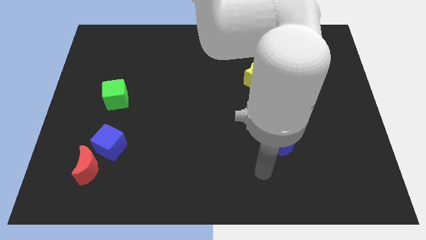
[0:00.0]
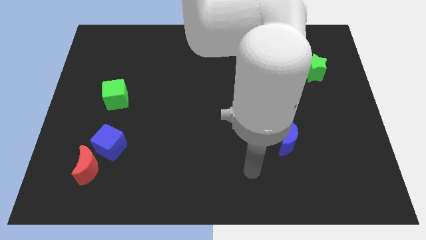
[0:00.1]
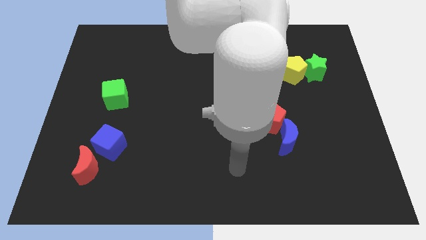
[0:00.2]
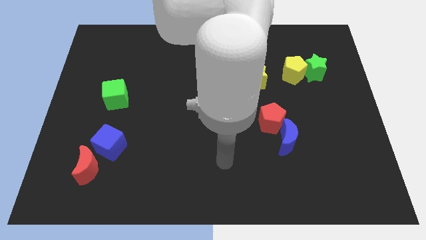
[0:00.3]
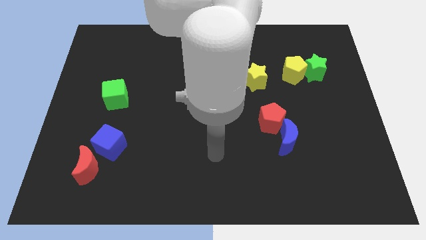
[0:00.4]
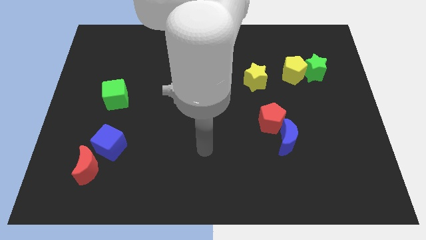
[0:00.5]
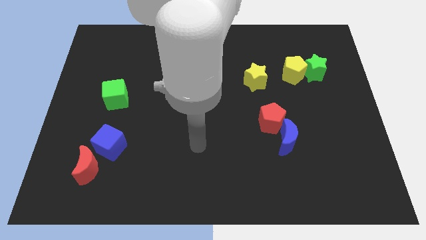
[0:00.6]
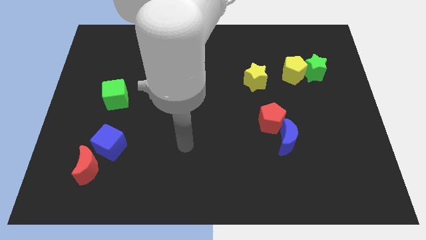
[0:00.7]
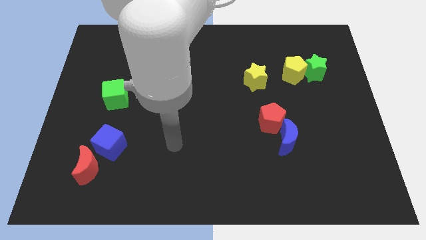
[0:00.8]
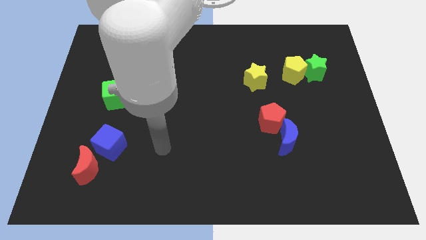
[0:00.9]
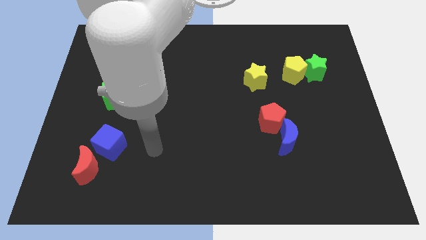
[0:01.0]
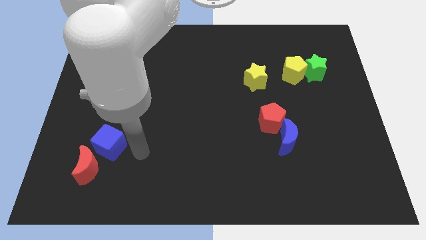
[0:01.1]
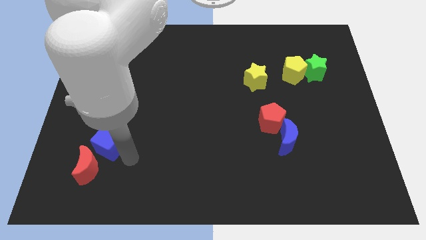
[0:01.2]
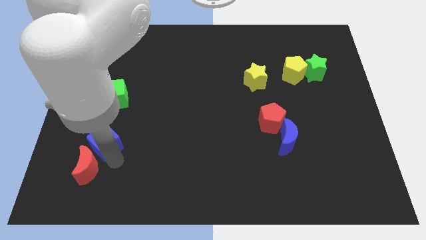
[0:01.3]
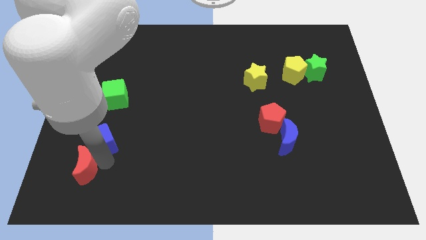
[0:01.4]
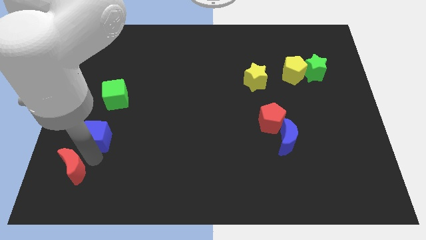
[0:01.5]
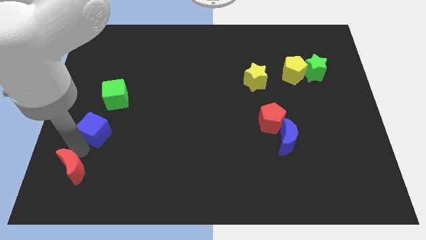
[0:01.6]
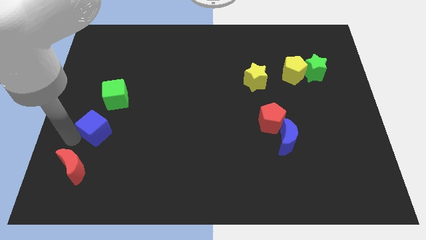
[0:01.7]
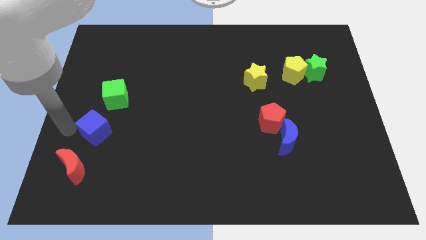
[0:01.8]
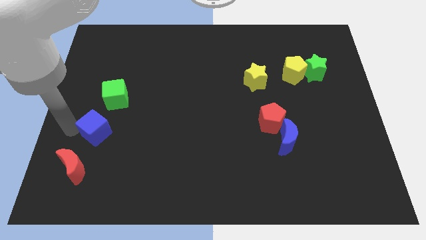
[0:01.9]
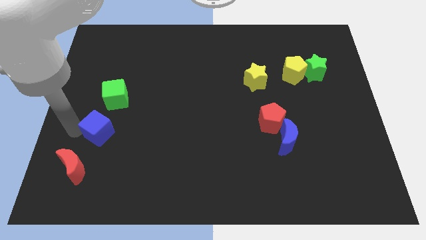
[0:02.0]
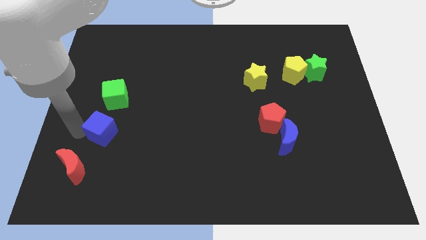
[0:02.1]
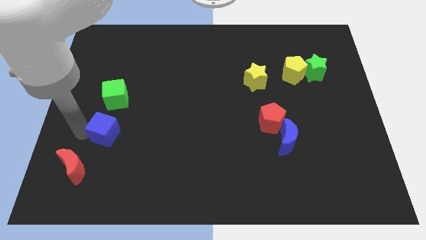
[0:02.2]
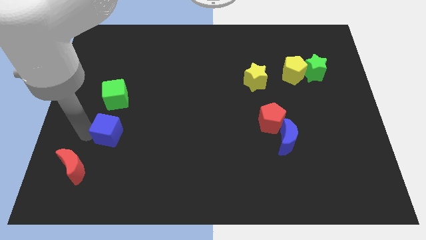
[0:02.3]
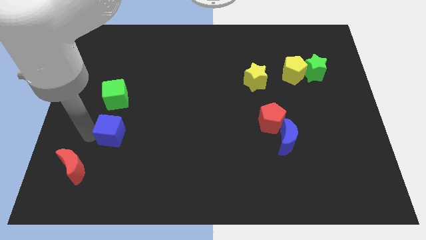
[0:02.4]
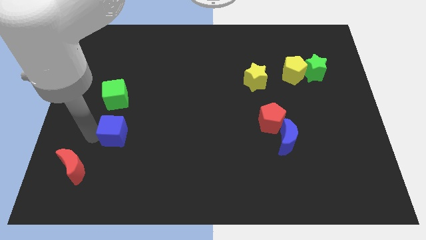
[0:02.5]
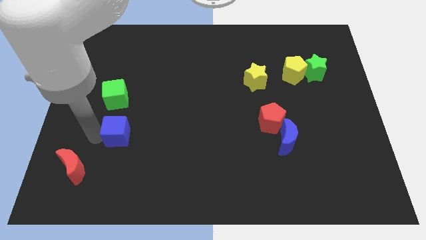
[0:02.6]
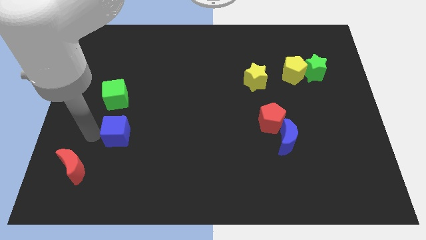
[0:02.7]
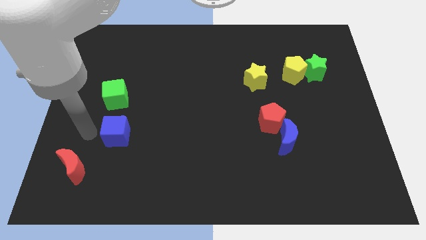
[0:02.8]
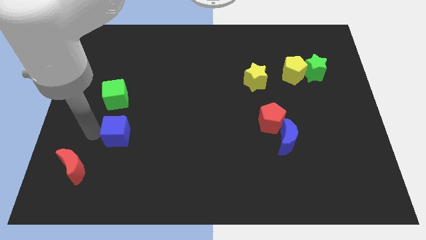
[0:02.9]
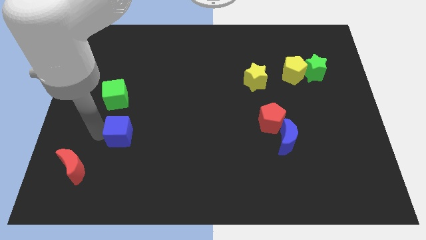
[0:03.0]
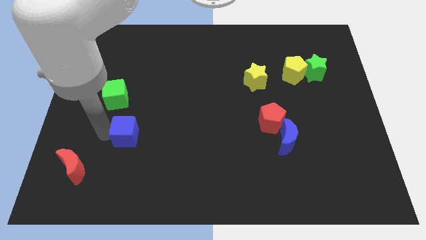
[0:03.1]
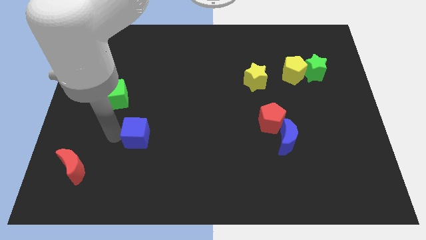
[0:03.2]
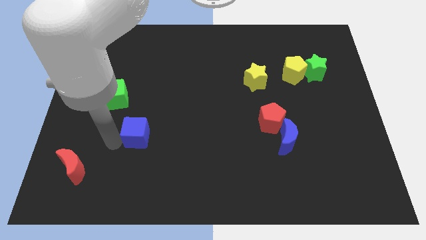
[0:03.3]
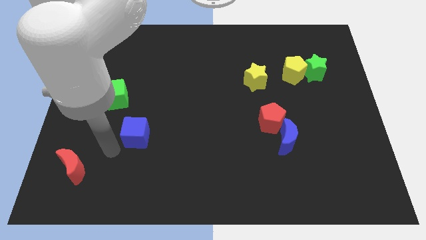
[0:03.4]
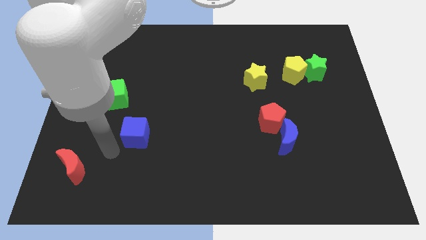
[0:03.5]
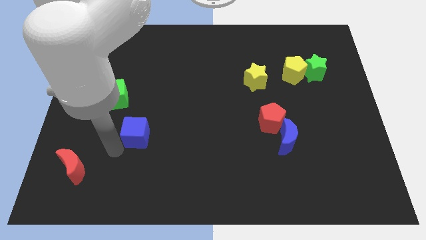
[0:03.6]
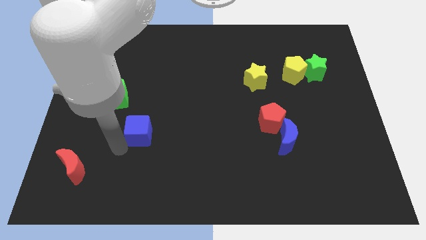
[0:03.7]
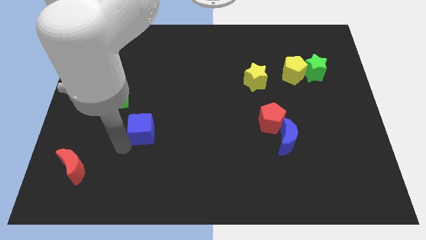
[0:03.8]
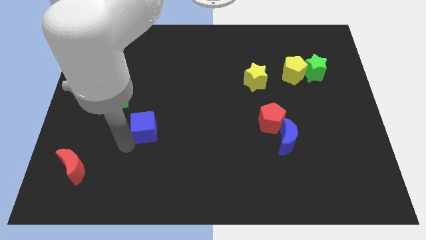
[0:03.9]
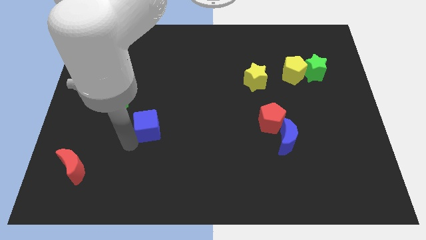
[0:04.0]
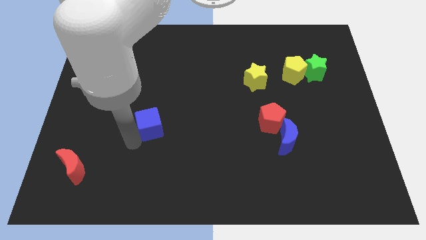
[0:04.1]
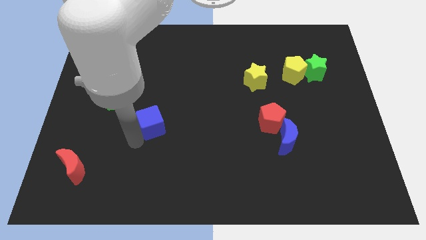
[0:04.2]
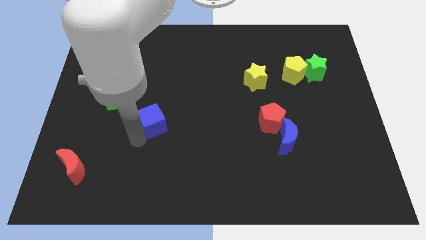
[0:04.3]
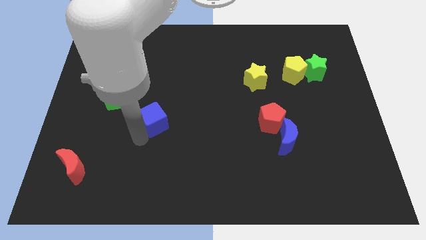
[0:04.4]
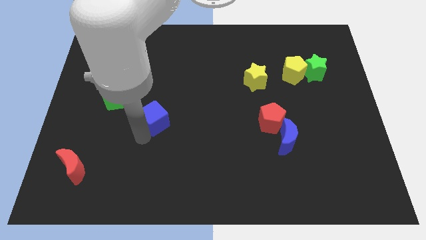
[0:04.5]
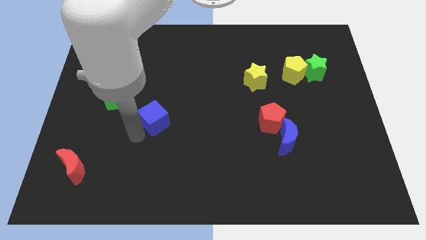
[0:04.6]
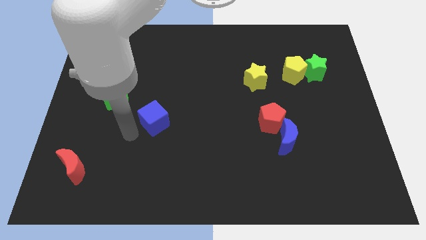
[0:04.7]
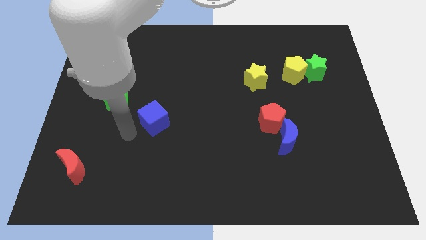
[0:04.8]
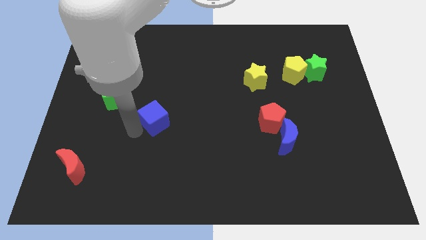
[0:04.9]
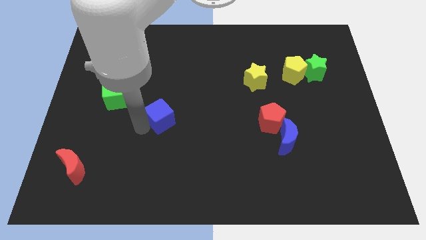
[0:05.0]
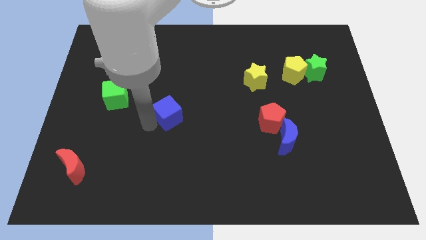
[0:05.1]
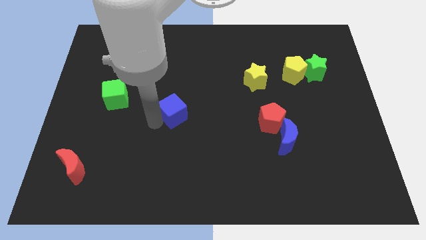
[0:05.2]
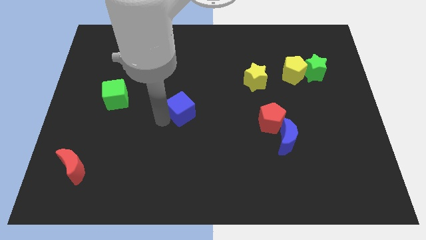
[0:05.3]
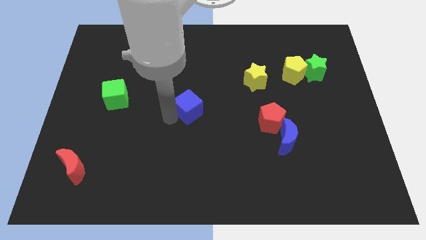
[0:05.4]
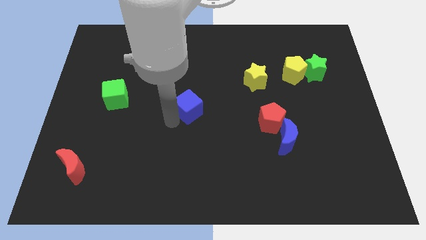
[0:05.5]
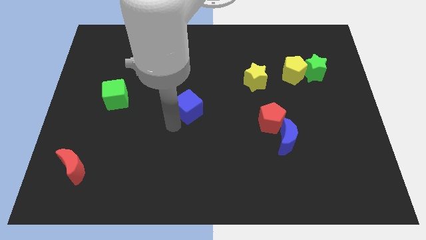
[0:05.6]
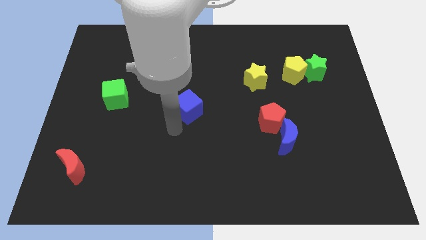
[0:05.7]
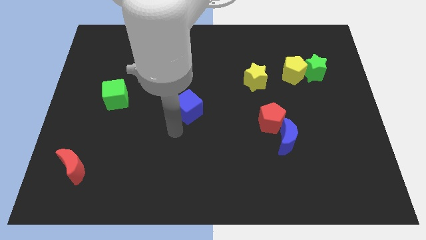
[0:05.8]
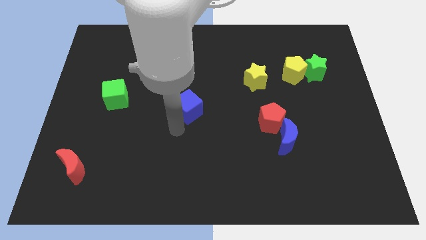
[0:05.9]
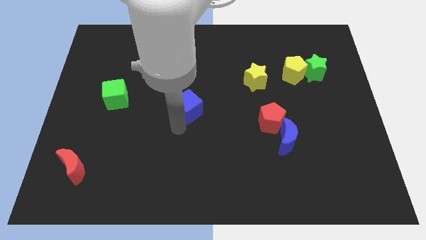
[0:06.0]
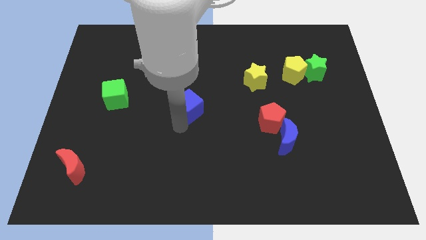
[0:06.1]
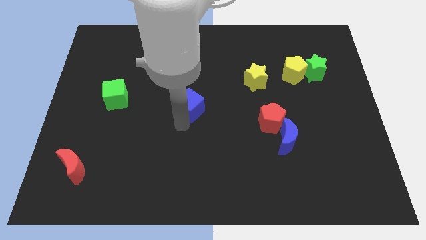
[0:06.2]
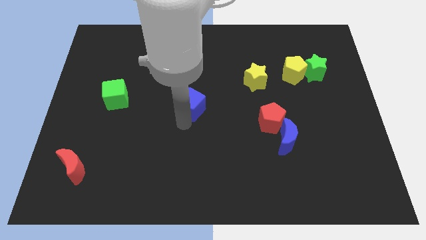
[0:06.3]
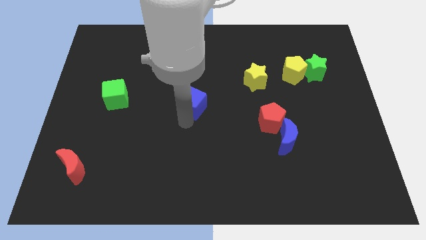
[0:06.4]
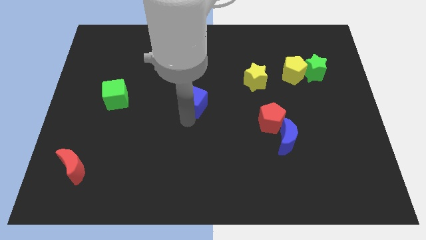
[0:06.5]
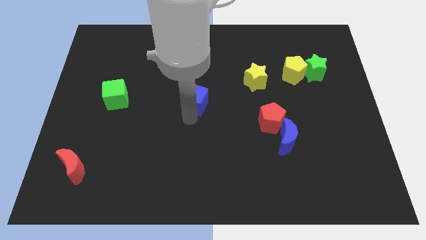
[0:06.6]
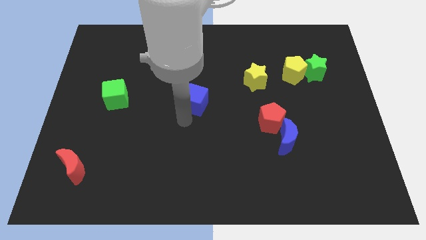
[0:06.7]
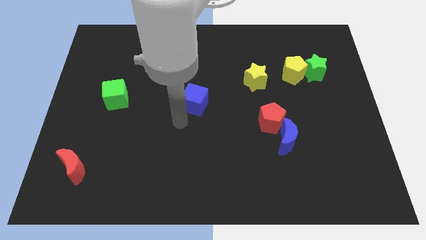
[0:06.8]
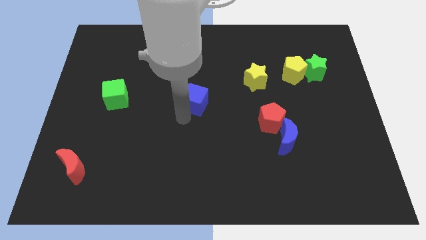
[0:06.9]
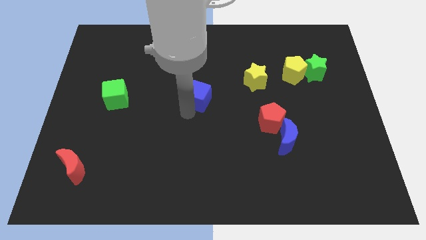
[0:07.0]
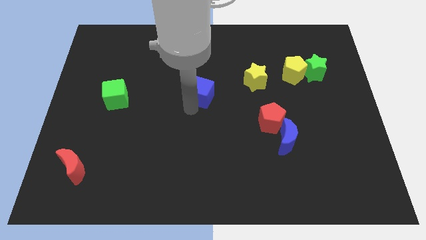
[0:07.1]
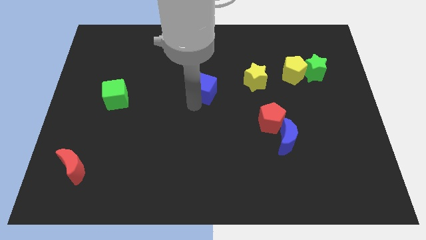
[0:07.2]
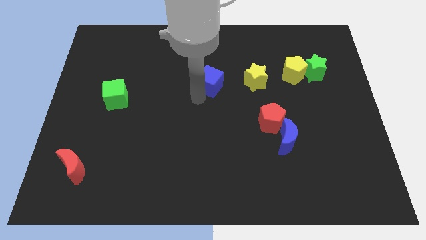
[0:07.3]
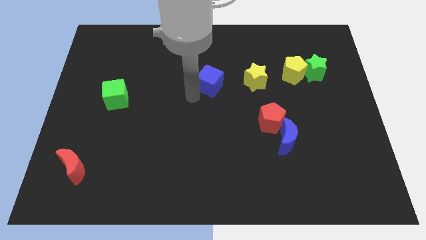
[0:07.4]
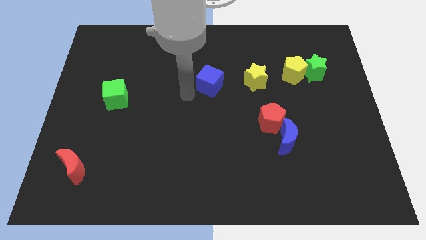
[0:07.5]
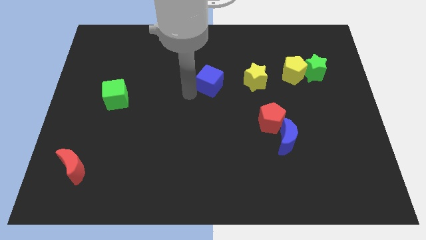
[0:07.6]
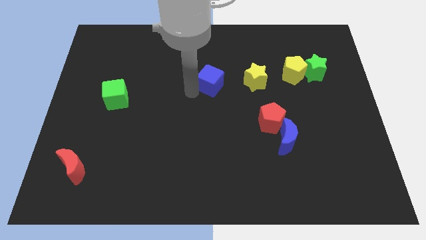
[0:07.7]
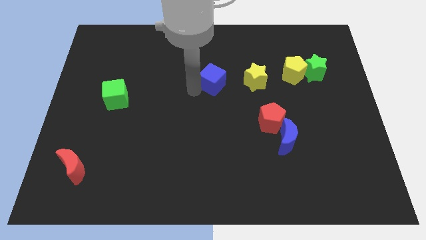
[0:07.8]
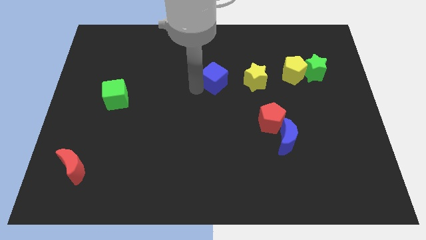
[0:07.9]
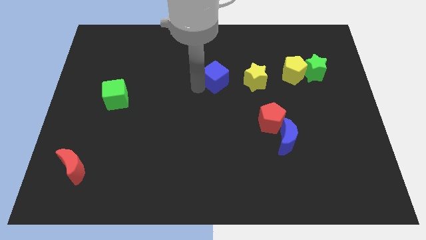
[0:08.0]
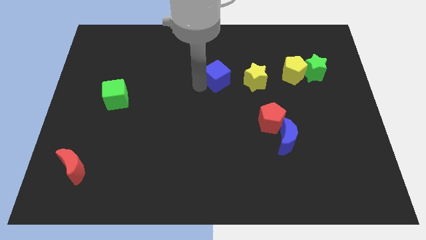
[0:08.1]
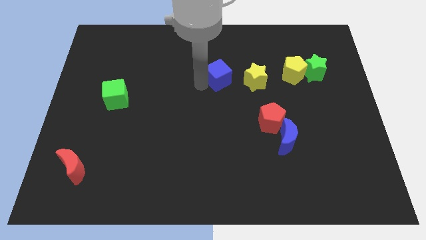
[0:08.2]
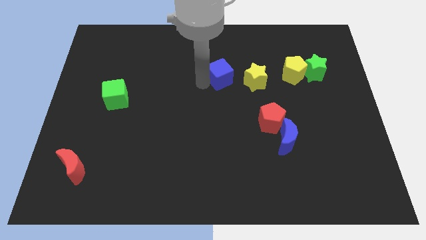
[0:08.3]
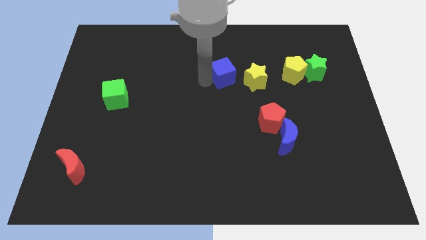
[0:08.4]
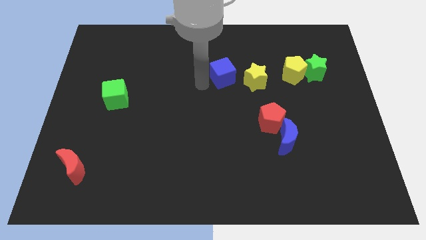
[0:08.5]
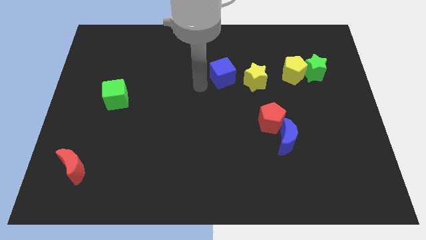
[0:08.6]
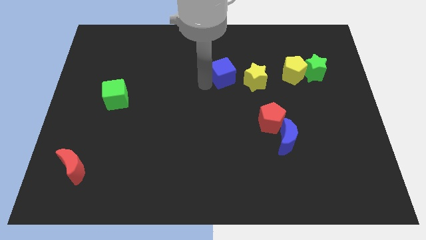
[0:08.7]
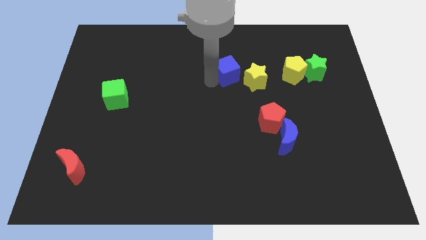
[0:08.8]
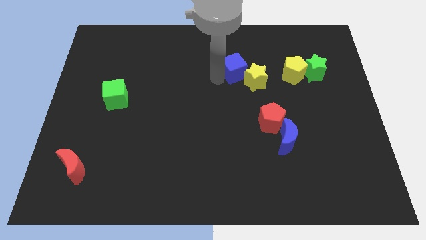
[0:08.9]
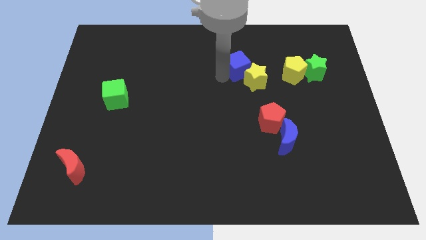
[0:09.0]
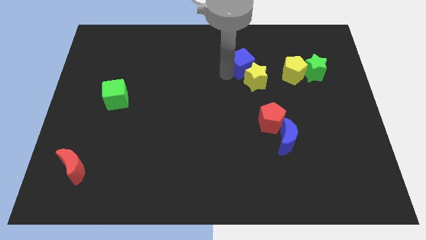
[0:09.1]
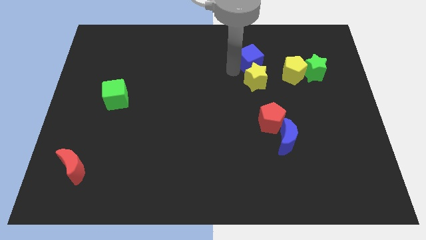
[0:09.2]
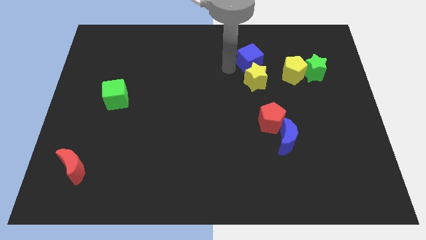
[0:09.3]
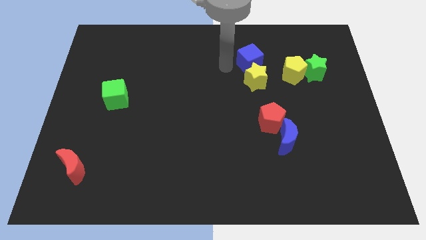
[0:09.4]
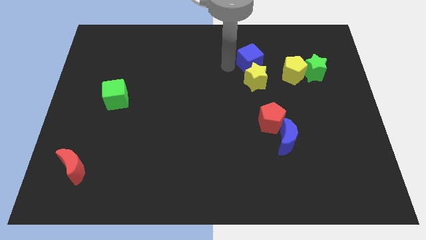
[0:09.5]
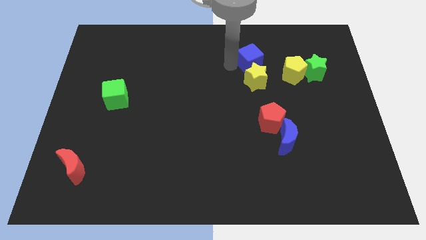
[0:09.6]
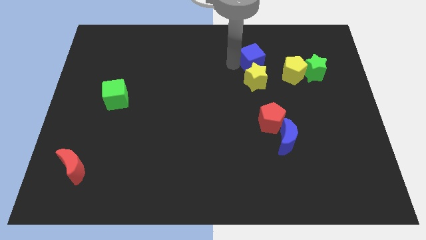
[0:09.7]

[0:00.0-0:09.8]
push the blue cube to the top left side of the yellow pentagon
